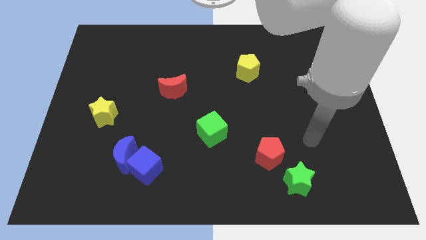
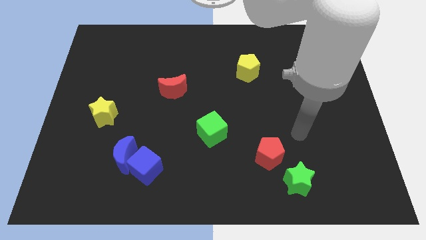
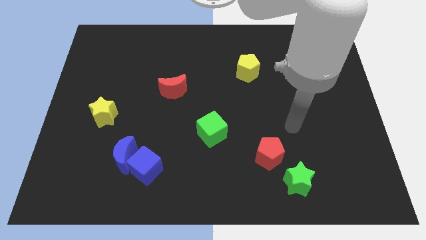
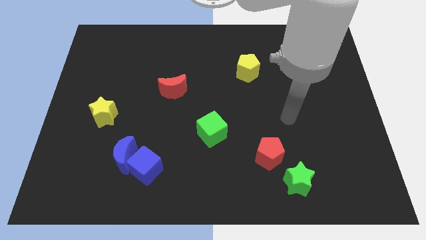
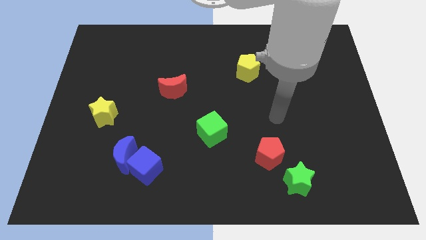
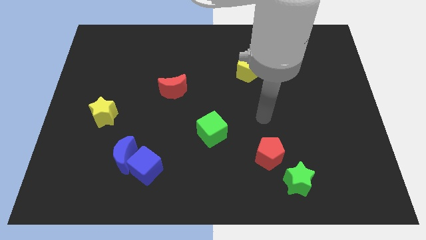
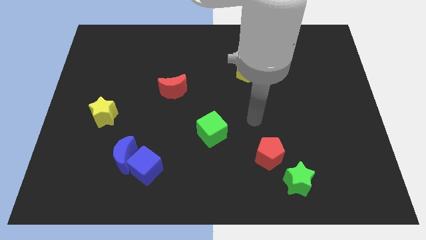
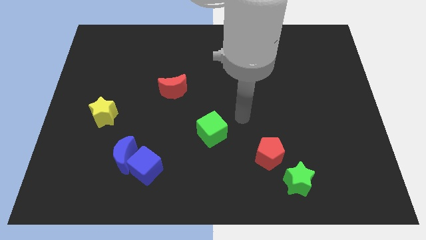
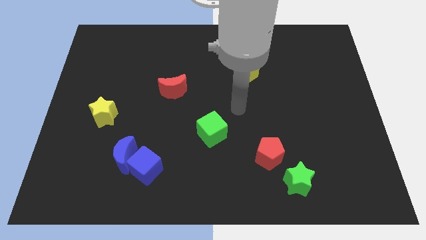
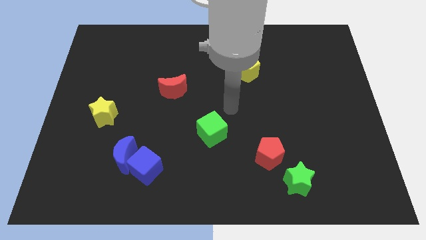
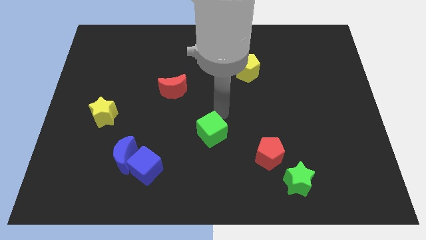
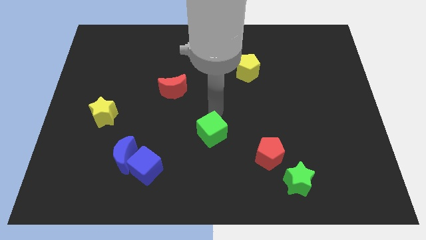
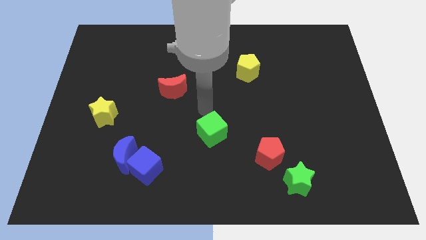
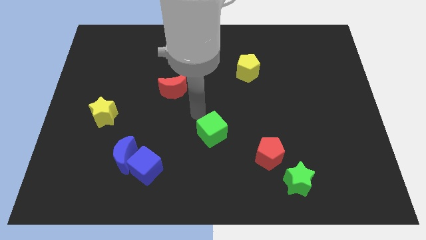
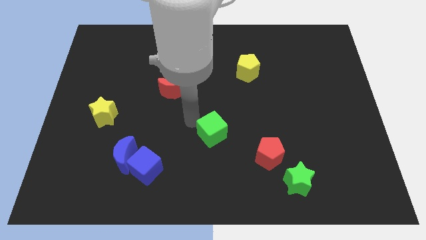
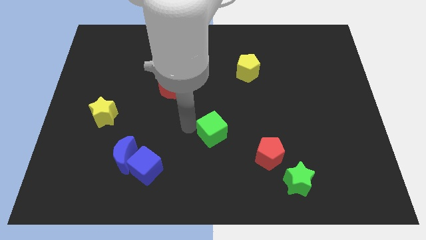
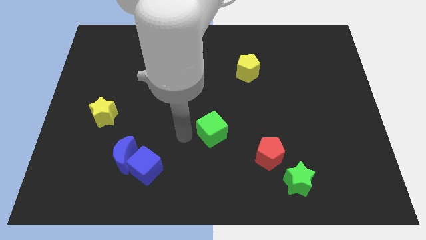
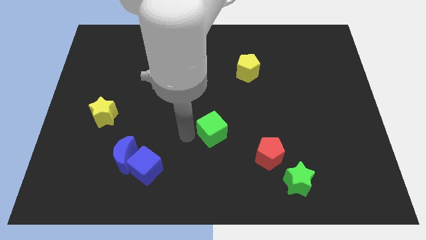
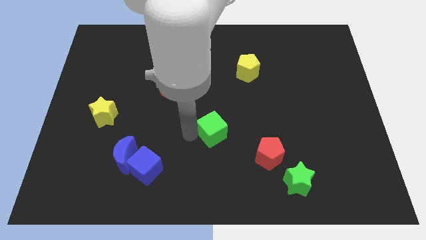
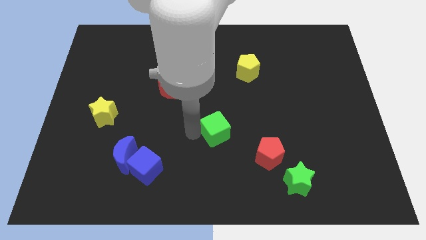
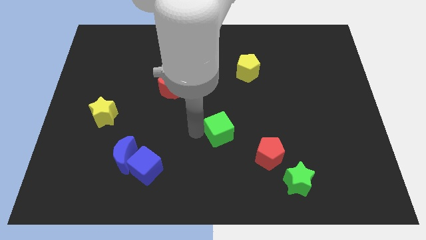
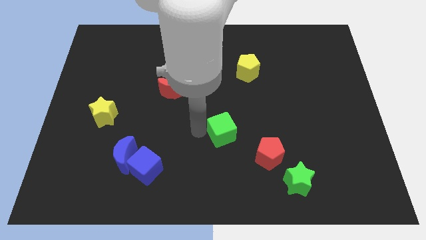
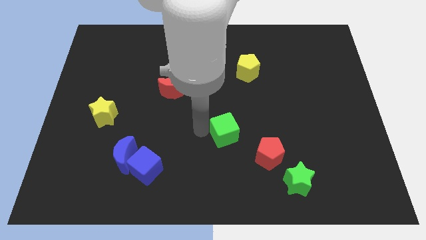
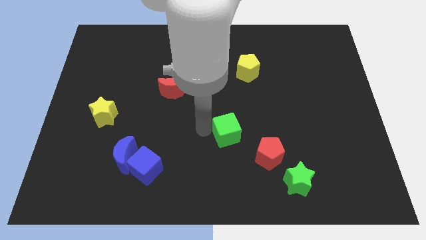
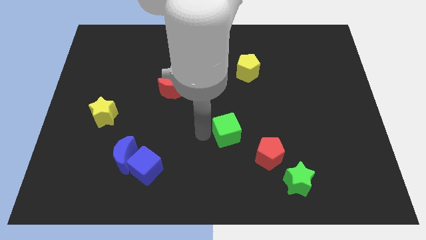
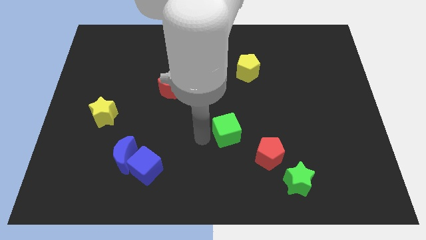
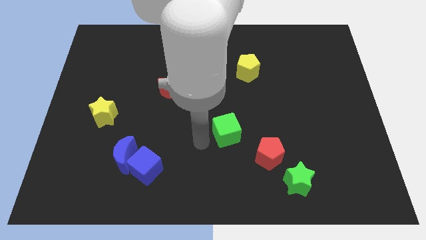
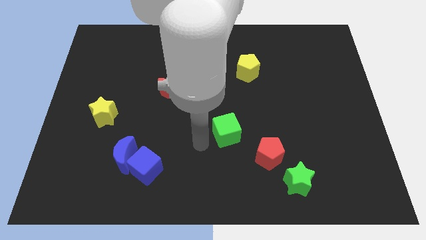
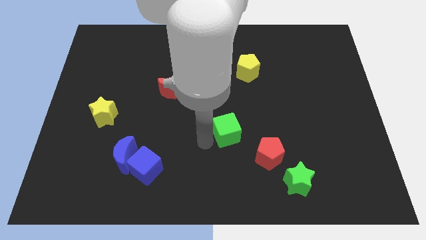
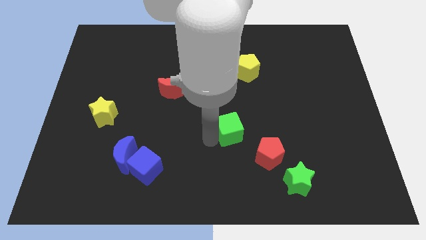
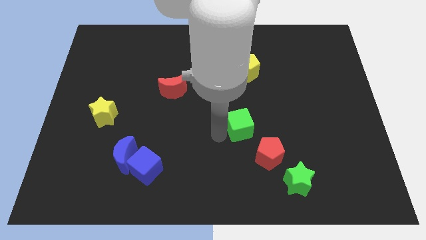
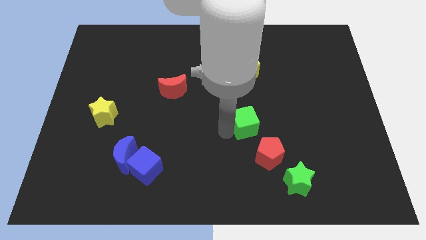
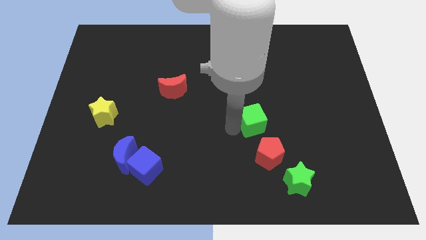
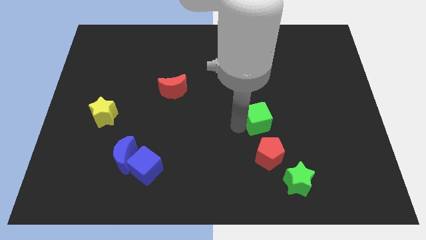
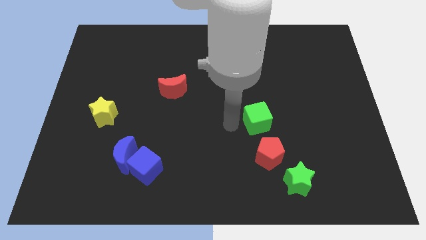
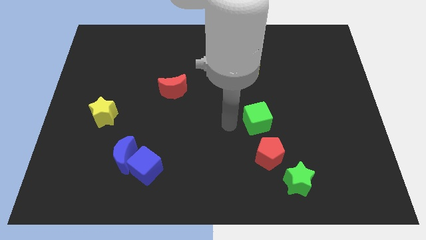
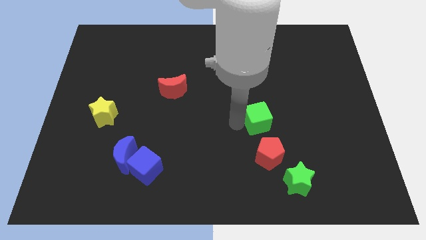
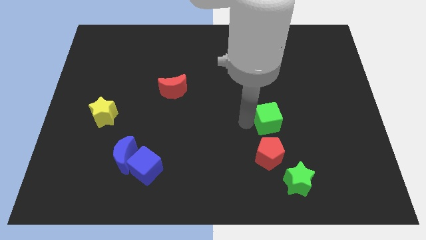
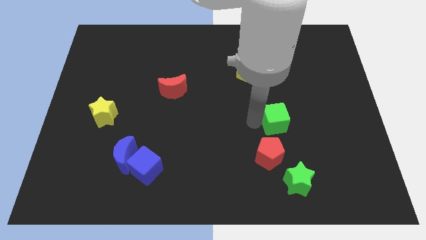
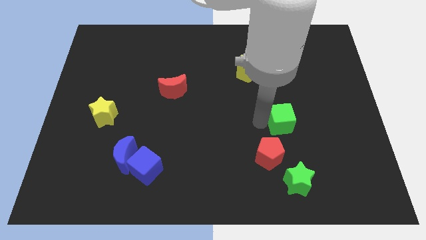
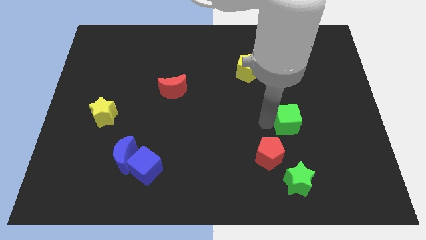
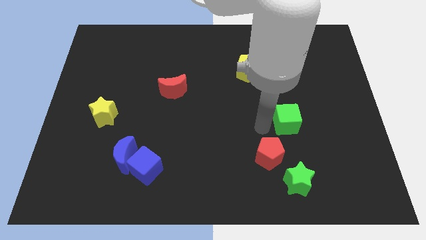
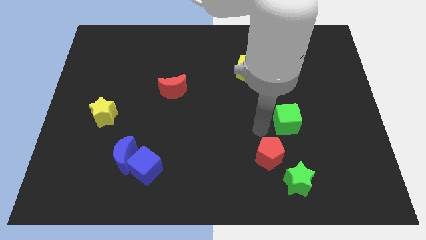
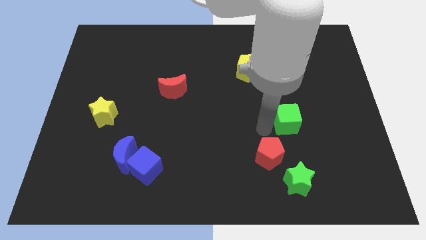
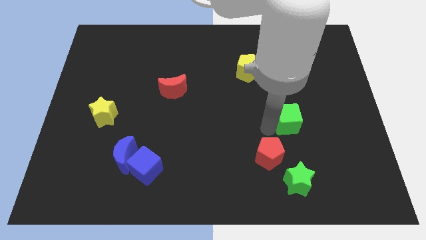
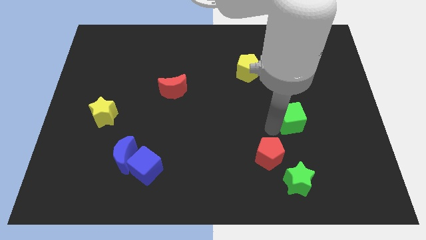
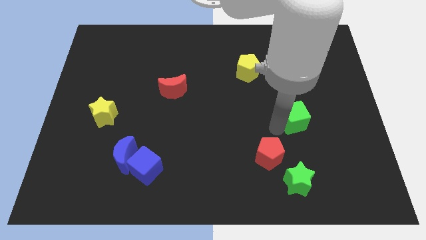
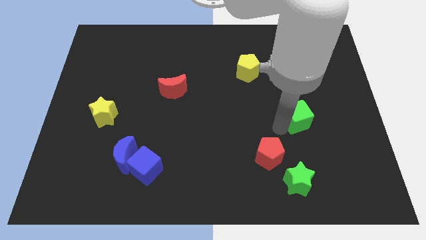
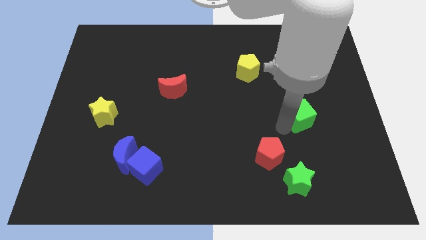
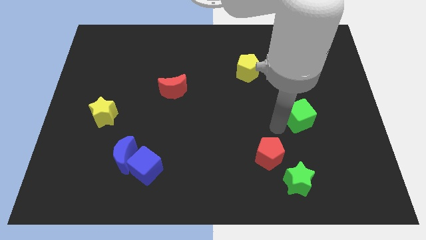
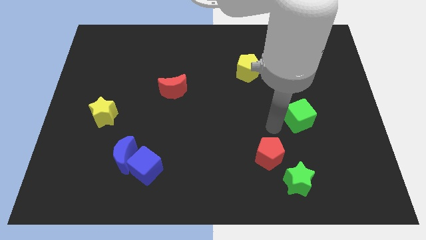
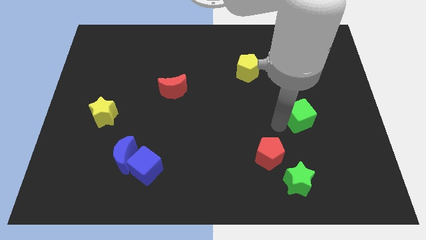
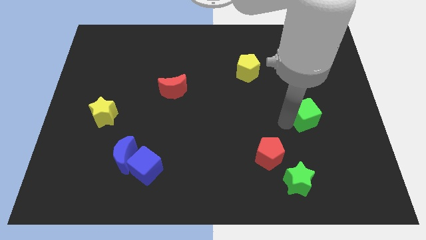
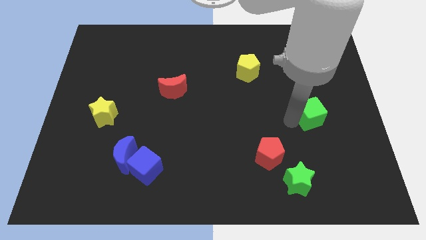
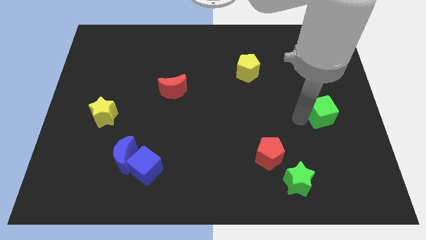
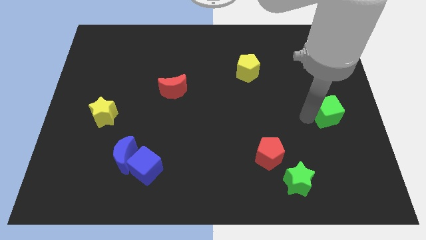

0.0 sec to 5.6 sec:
put the green cube to the center right

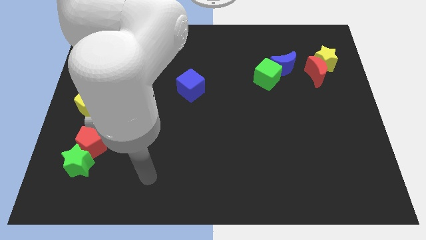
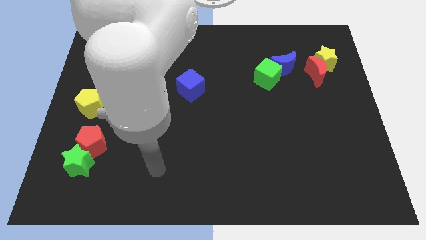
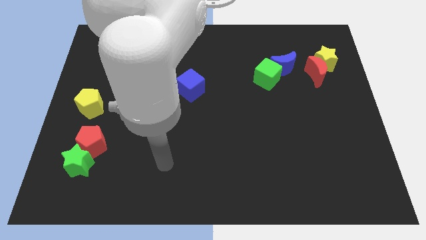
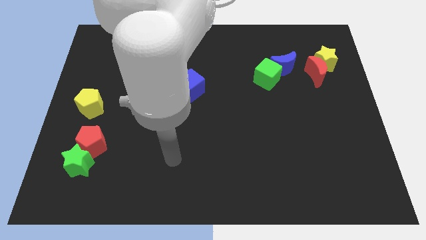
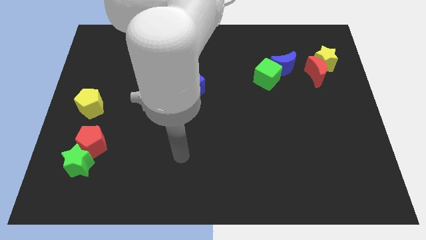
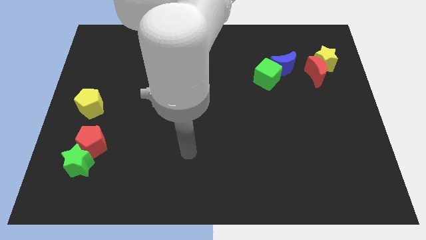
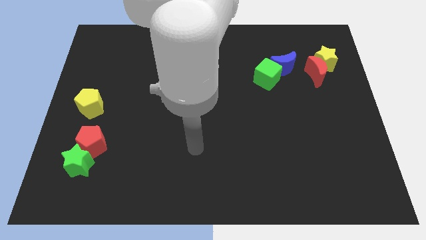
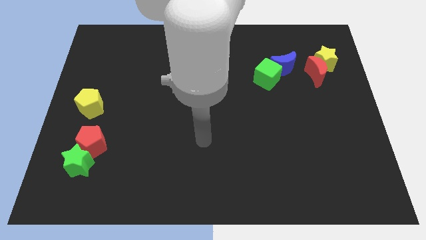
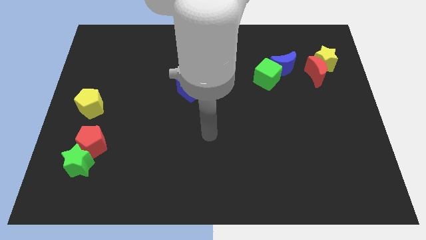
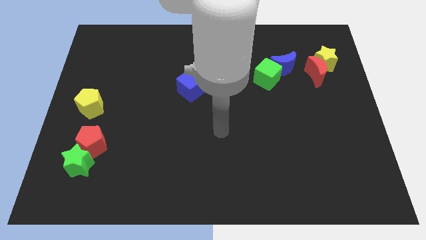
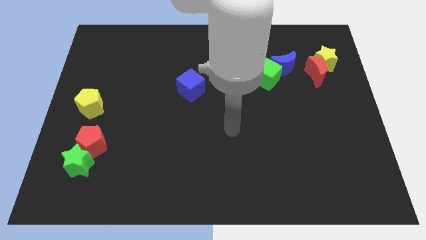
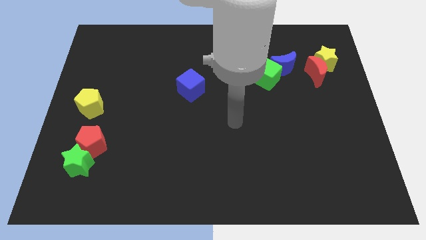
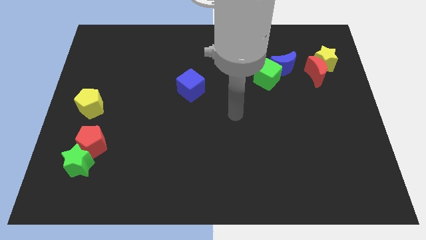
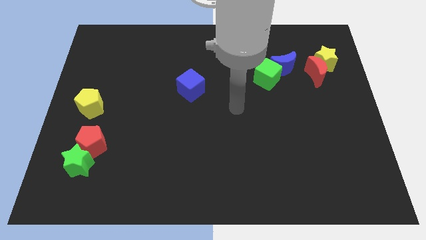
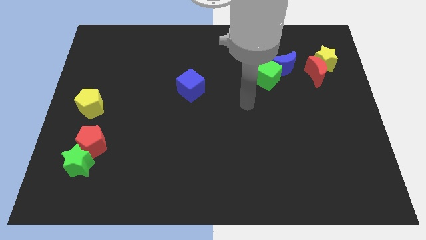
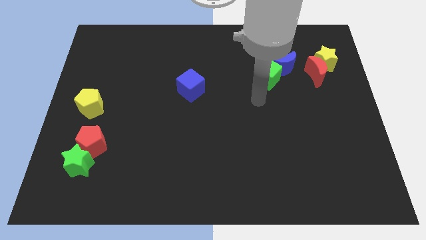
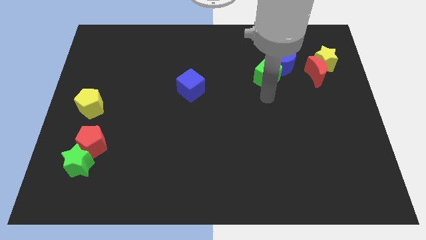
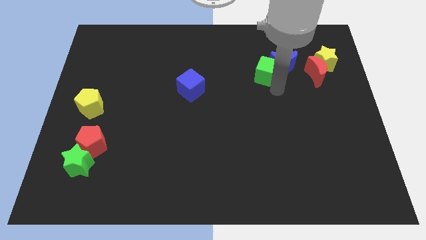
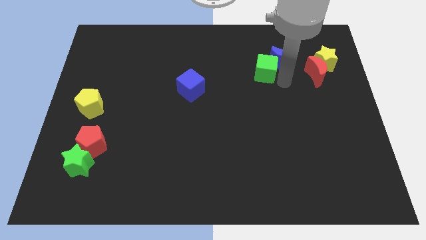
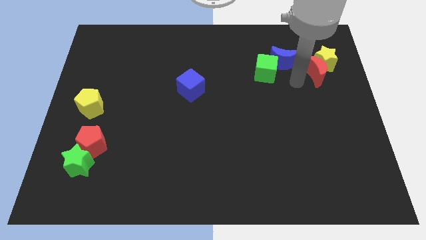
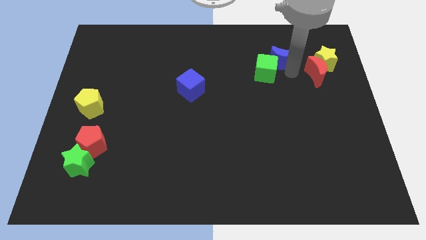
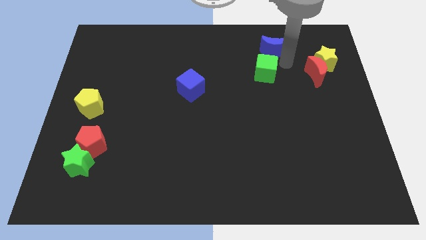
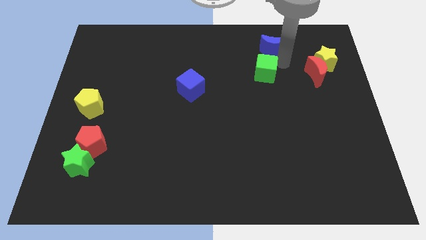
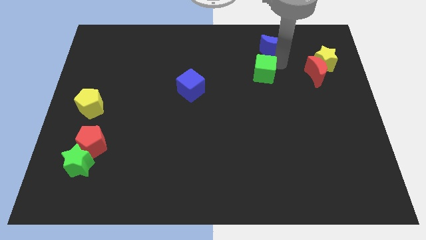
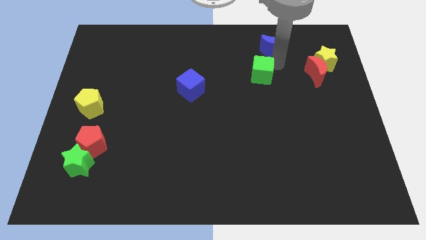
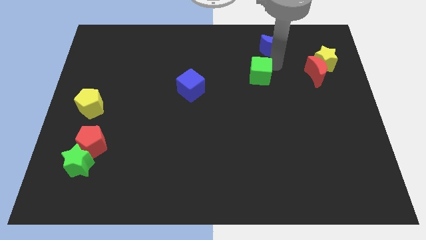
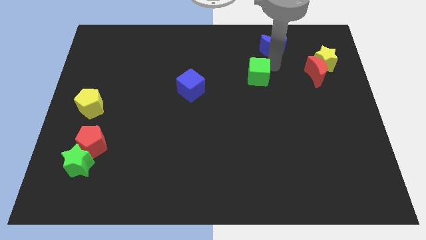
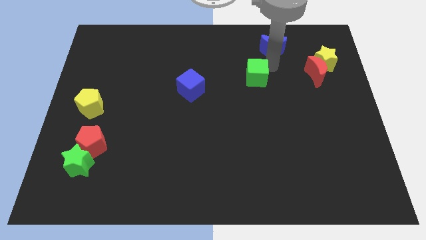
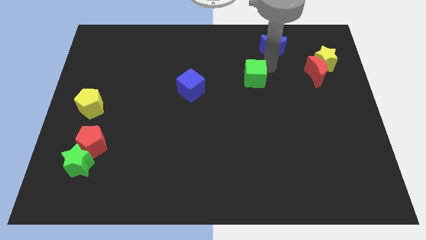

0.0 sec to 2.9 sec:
put the green cube to the center of the board
